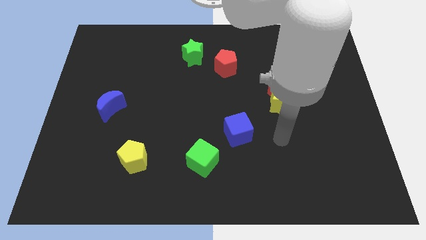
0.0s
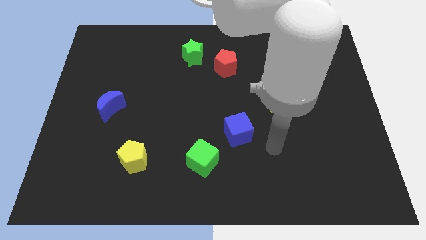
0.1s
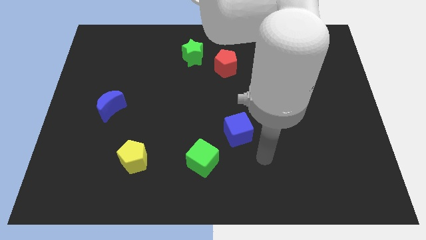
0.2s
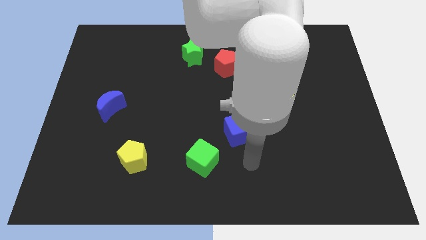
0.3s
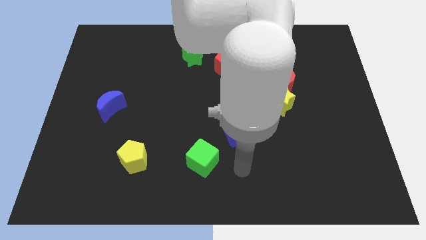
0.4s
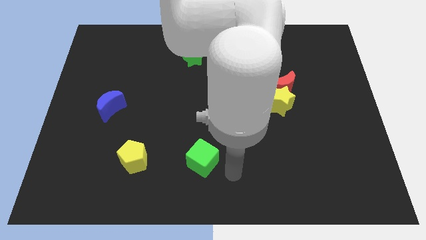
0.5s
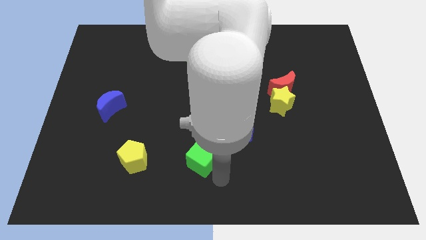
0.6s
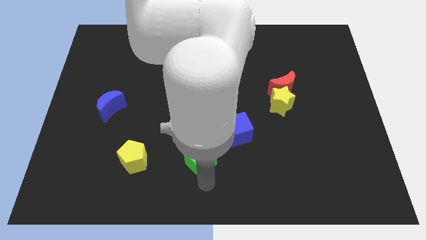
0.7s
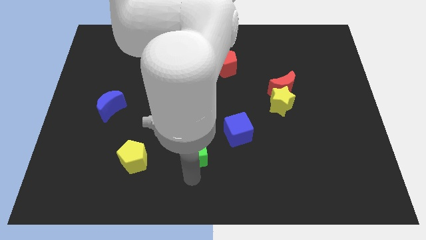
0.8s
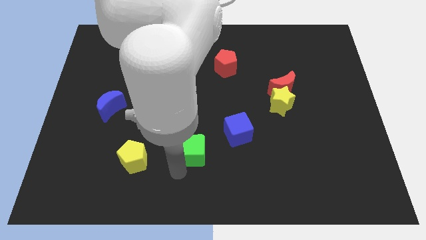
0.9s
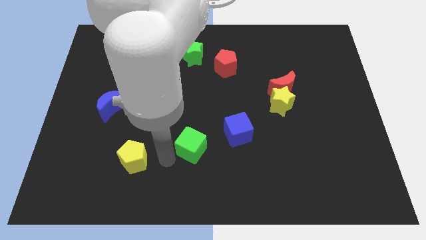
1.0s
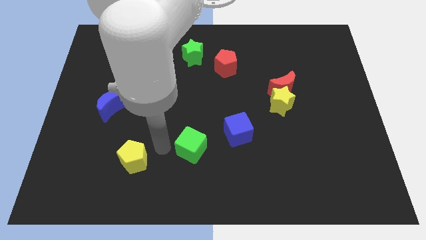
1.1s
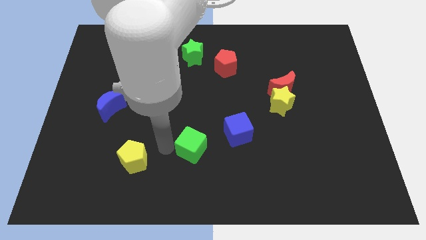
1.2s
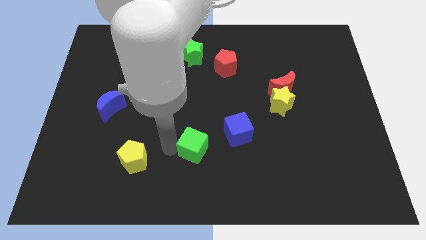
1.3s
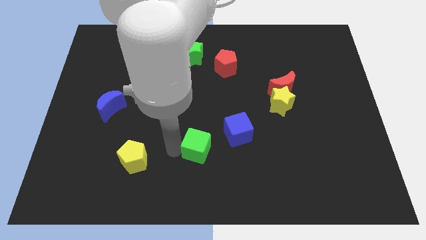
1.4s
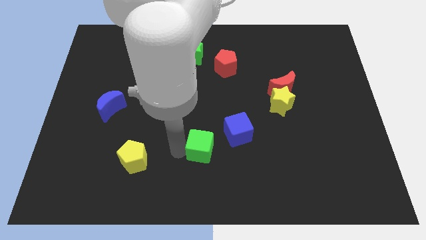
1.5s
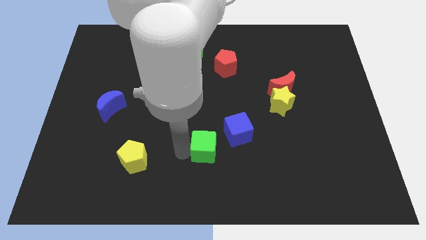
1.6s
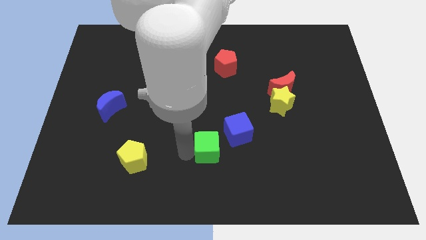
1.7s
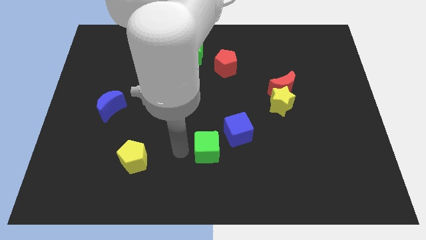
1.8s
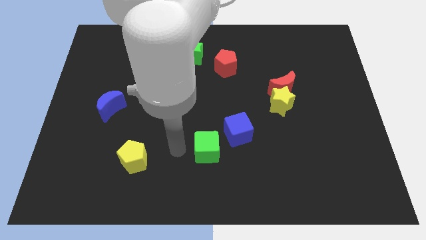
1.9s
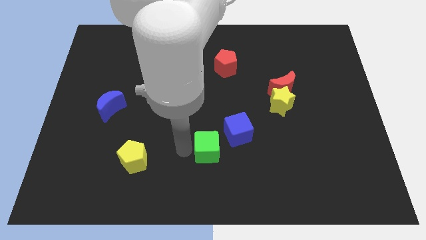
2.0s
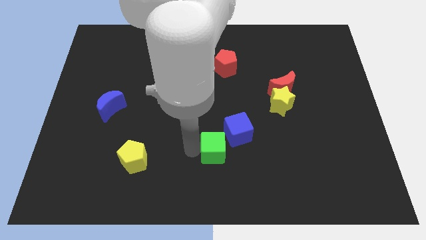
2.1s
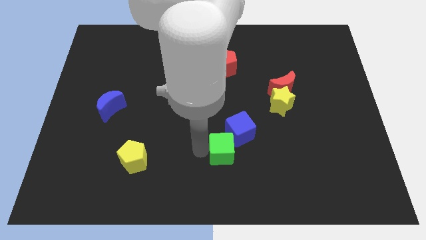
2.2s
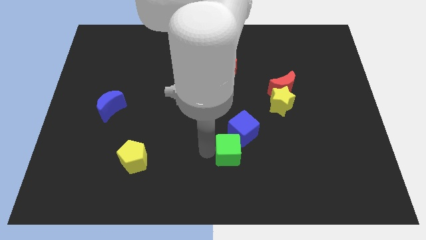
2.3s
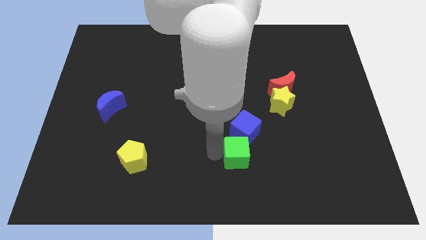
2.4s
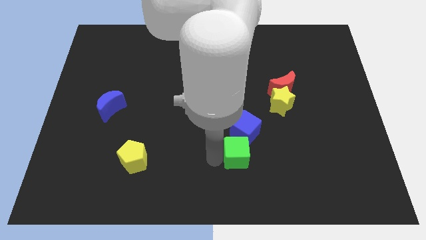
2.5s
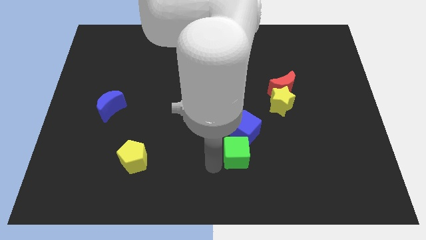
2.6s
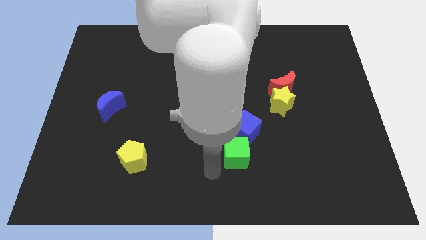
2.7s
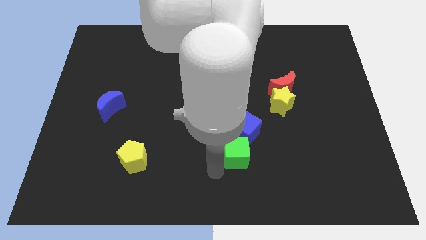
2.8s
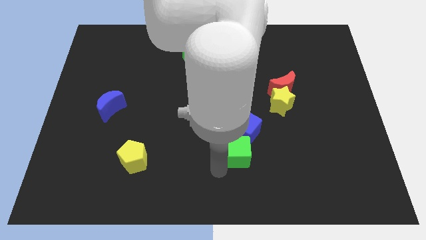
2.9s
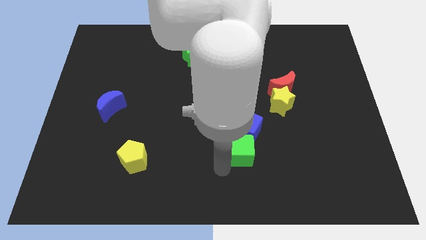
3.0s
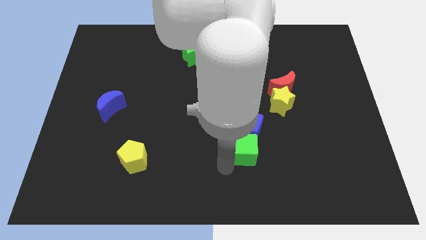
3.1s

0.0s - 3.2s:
move the green cube a bit upwards and right

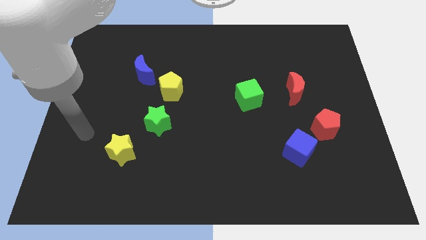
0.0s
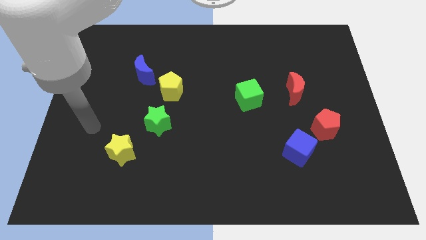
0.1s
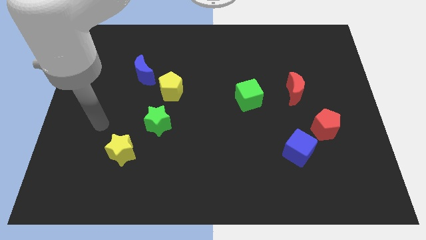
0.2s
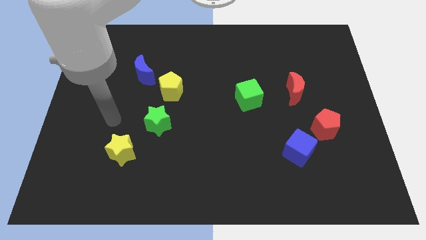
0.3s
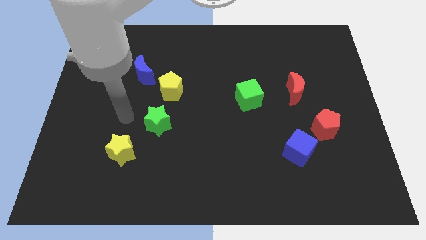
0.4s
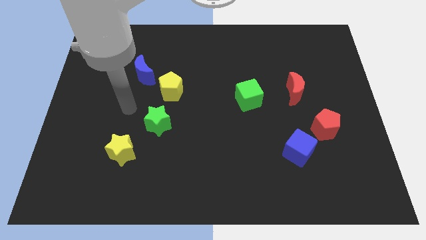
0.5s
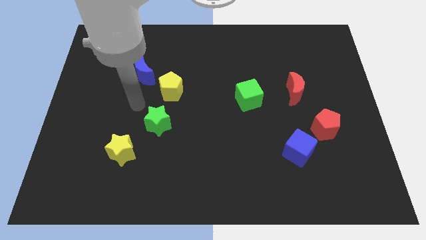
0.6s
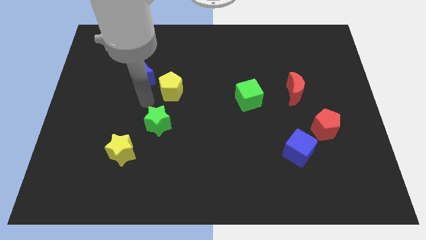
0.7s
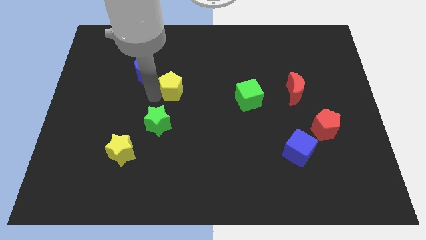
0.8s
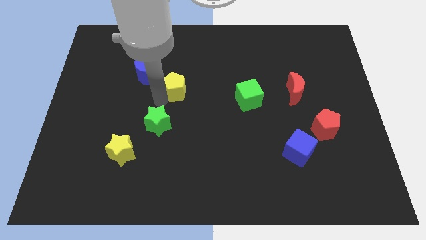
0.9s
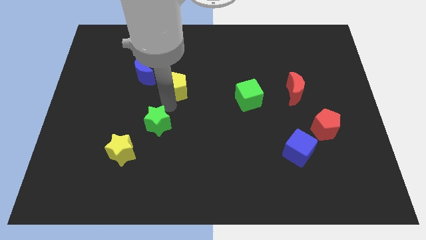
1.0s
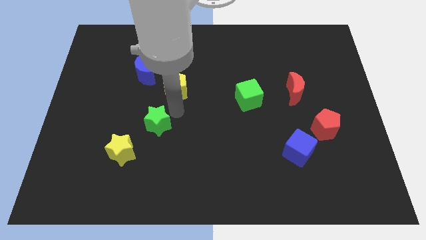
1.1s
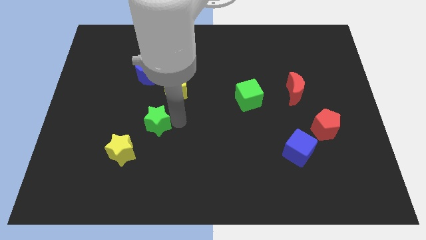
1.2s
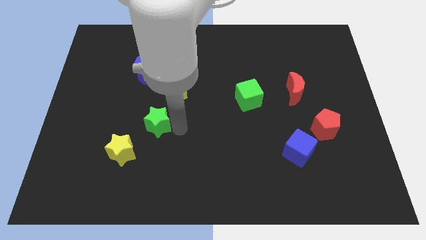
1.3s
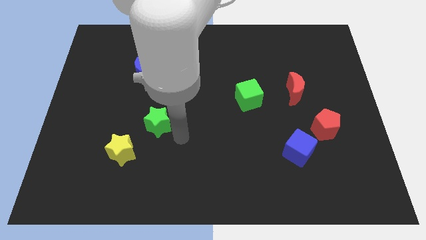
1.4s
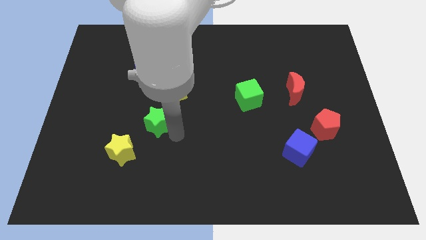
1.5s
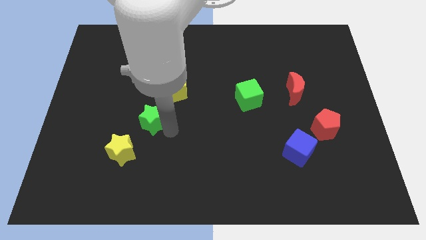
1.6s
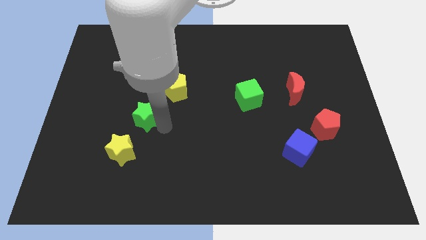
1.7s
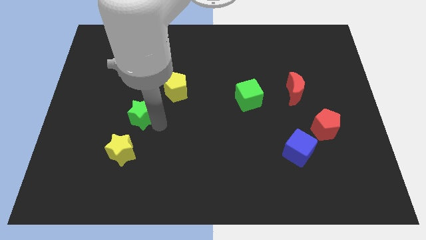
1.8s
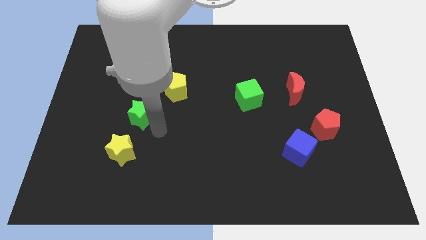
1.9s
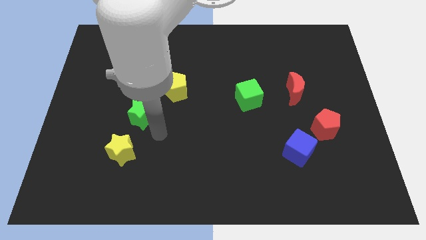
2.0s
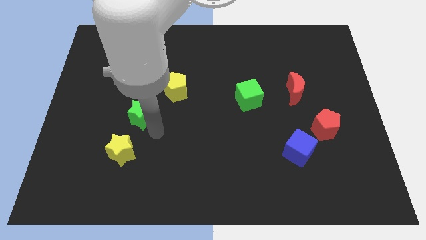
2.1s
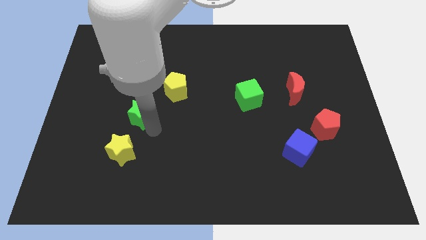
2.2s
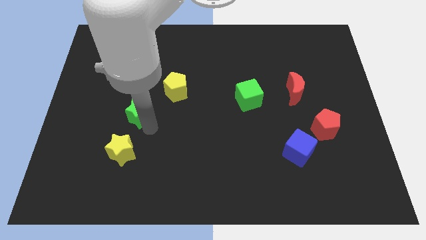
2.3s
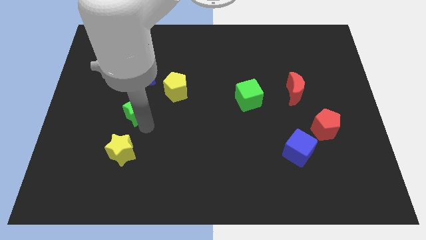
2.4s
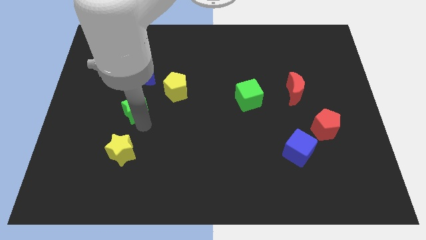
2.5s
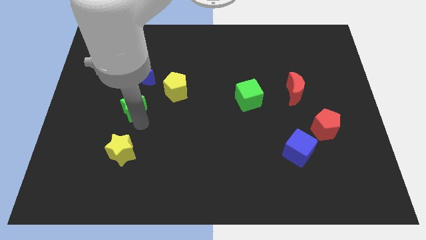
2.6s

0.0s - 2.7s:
push the green star upwards and then to the left somewhat

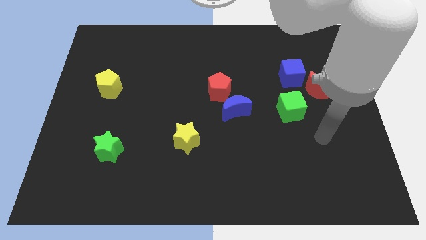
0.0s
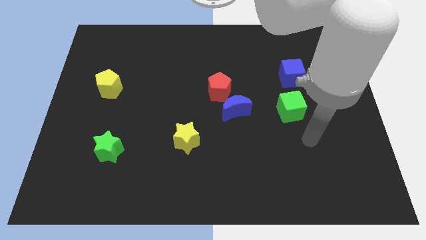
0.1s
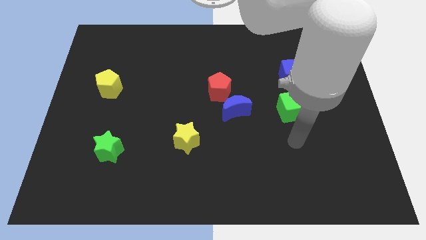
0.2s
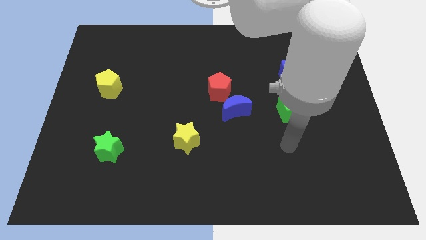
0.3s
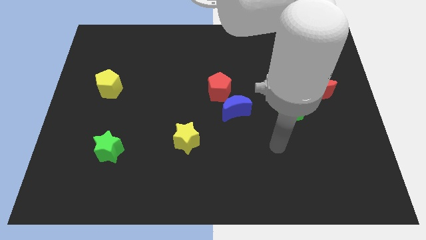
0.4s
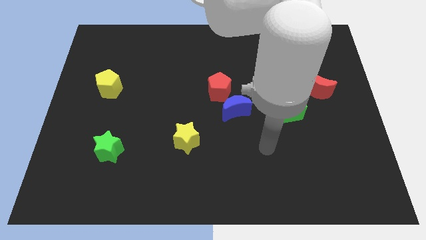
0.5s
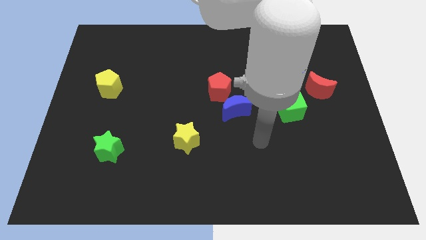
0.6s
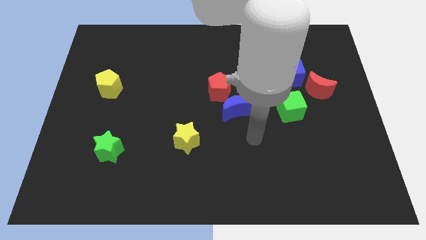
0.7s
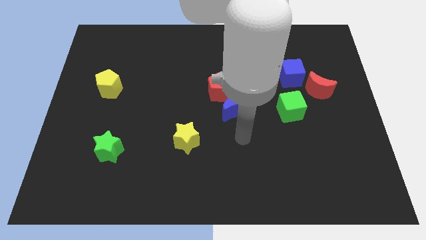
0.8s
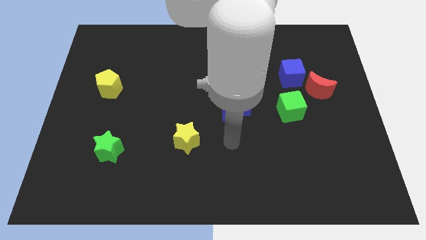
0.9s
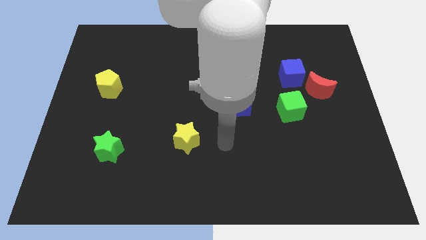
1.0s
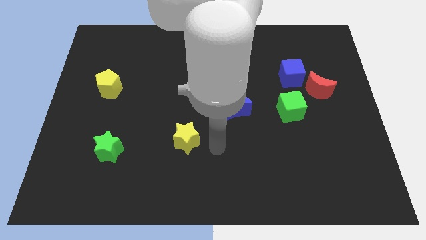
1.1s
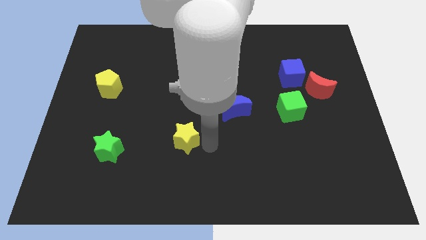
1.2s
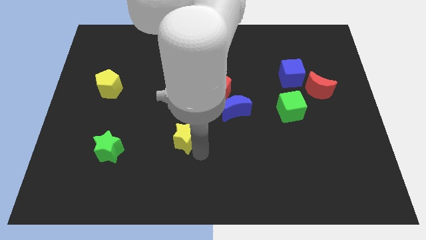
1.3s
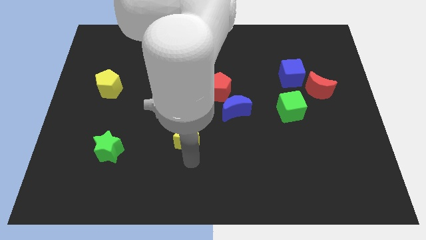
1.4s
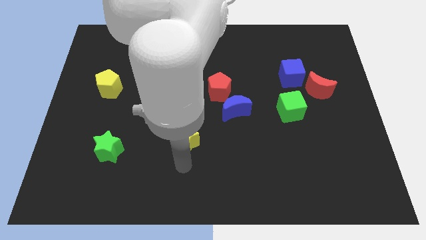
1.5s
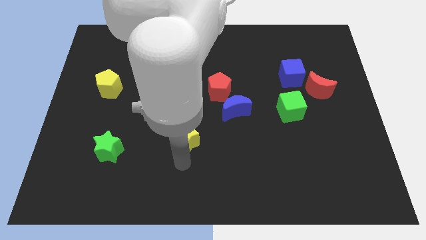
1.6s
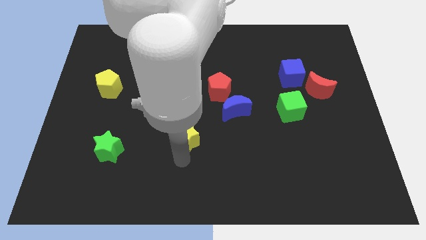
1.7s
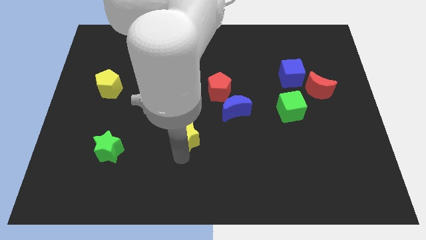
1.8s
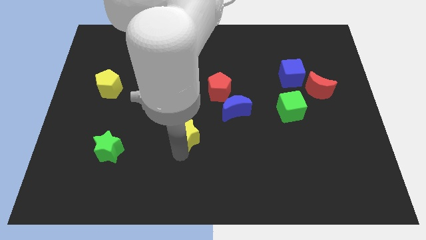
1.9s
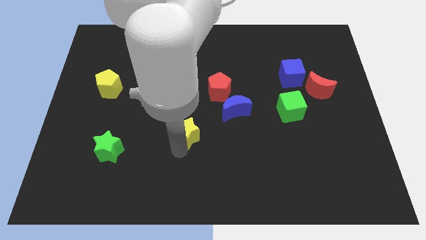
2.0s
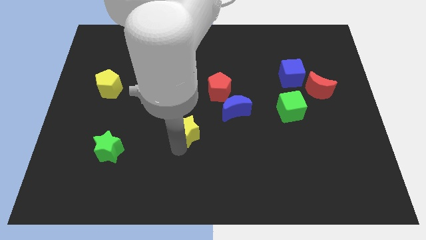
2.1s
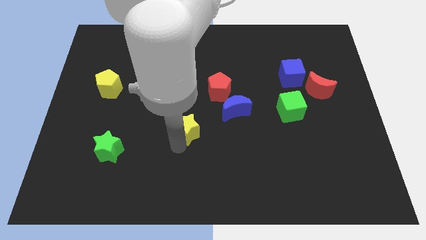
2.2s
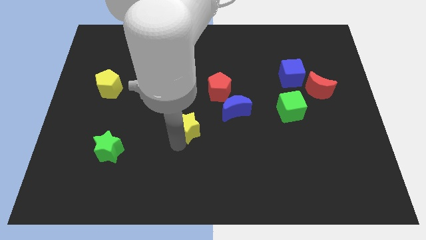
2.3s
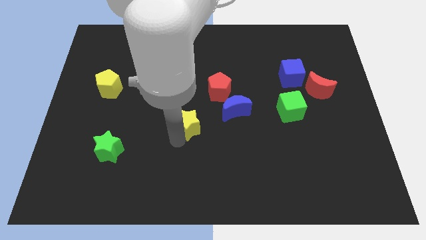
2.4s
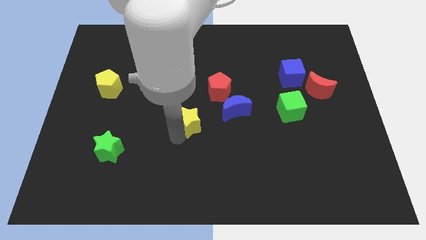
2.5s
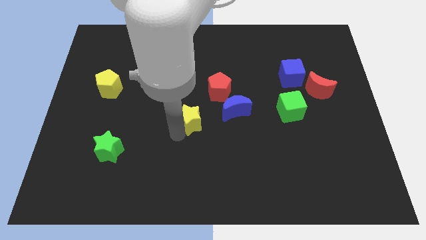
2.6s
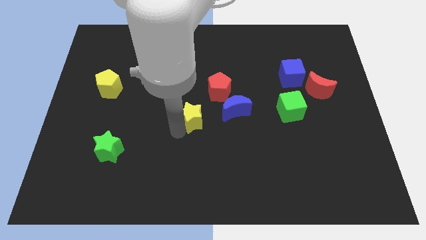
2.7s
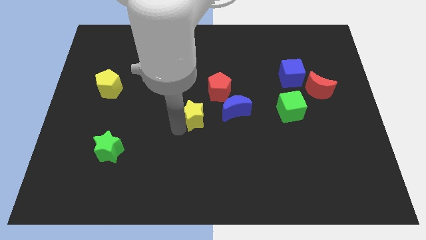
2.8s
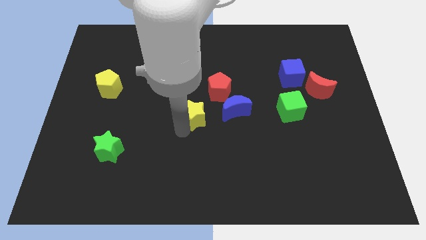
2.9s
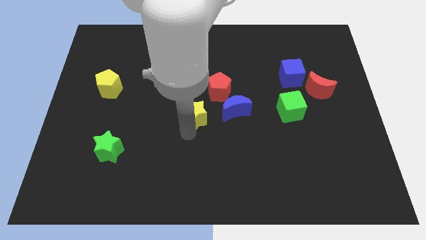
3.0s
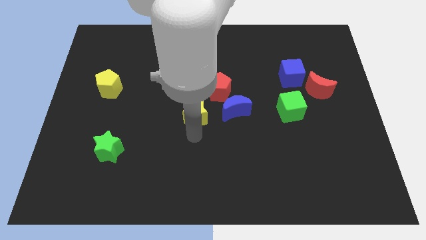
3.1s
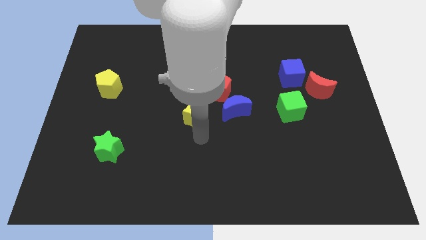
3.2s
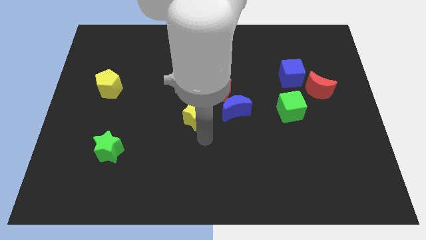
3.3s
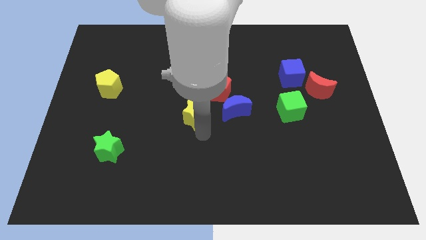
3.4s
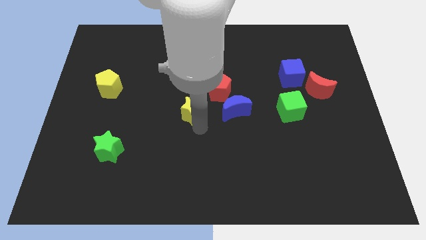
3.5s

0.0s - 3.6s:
slightly move the yellow star up
